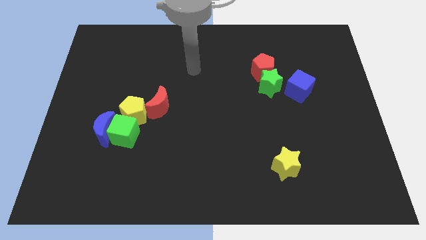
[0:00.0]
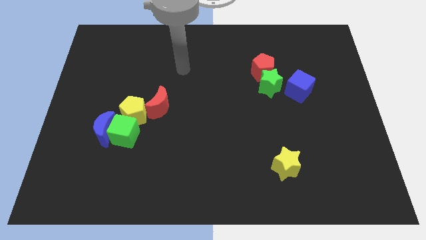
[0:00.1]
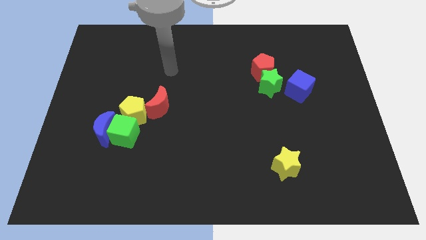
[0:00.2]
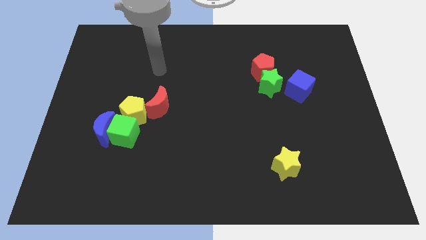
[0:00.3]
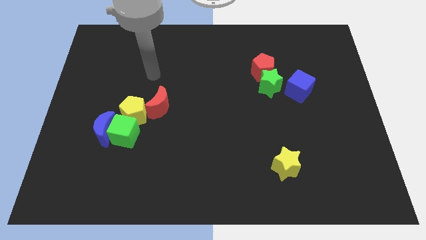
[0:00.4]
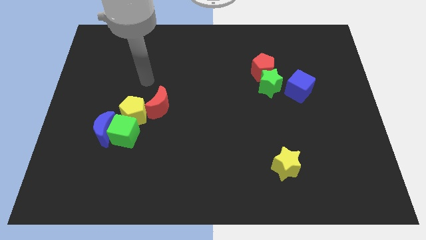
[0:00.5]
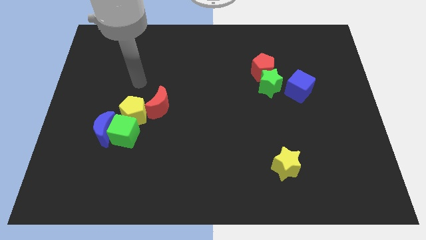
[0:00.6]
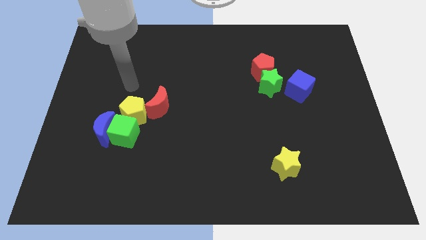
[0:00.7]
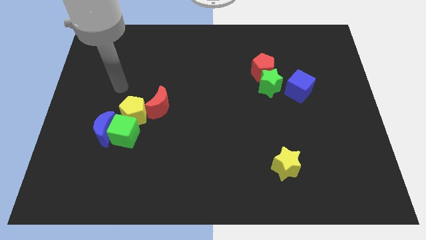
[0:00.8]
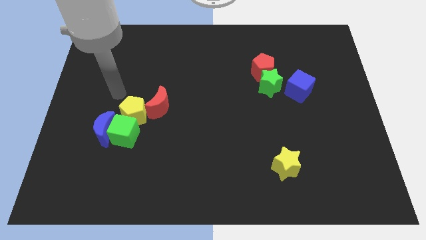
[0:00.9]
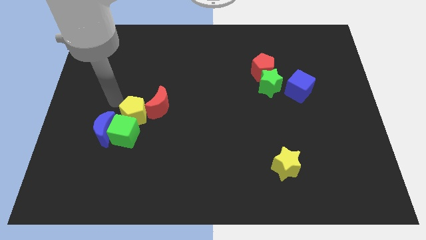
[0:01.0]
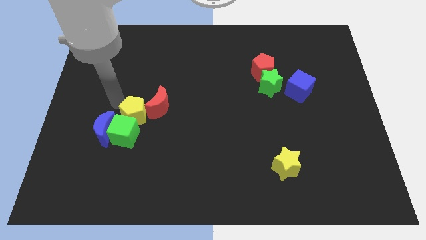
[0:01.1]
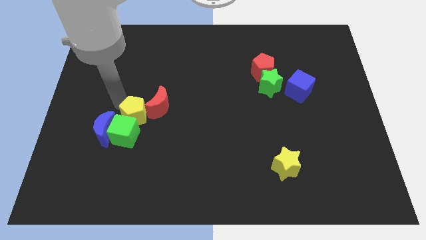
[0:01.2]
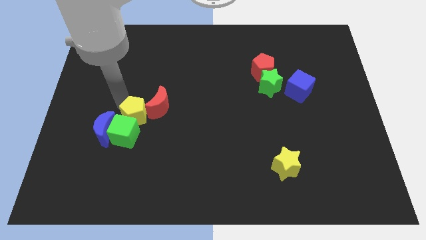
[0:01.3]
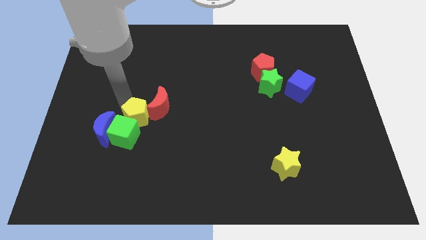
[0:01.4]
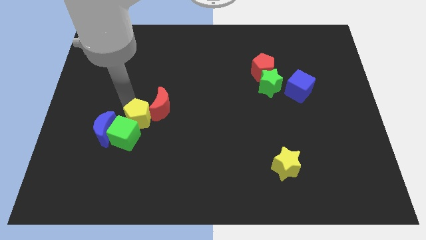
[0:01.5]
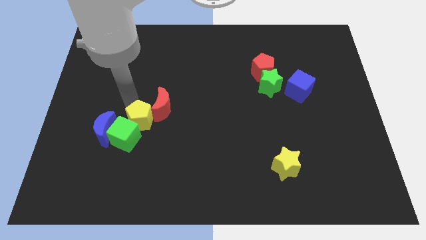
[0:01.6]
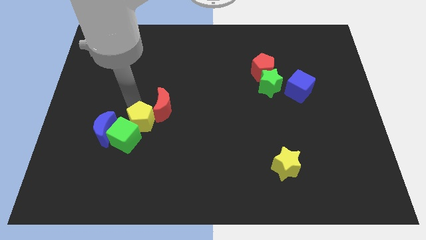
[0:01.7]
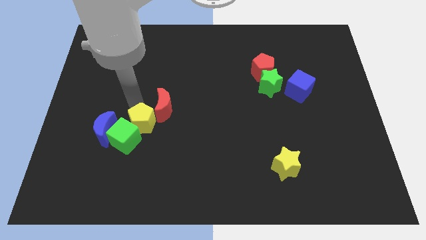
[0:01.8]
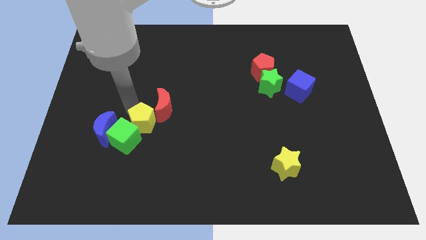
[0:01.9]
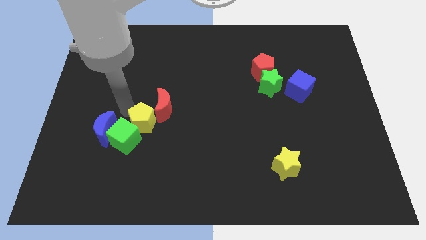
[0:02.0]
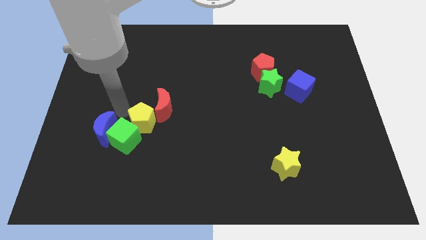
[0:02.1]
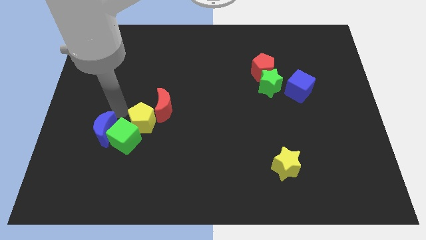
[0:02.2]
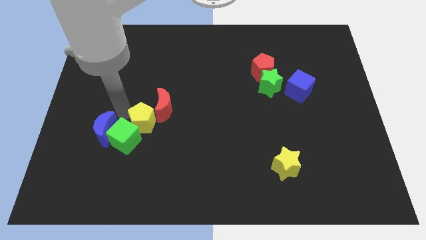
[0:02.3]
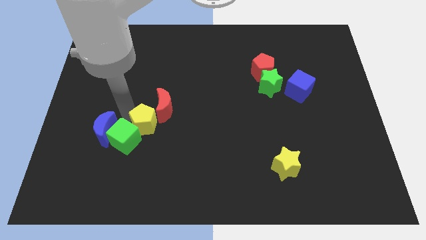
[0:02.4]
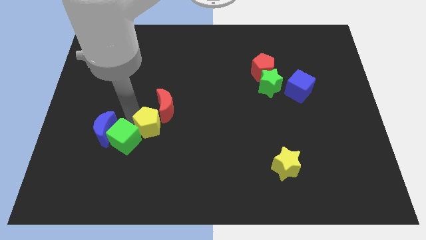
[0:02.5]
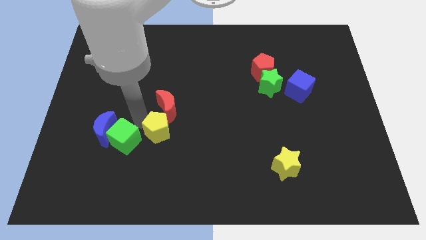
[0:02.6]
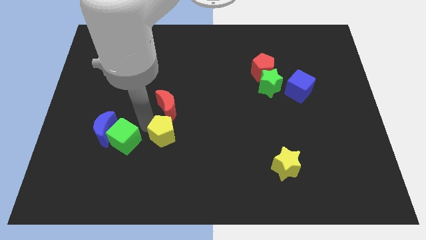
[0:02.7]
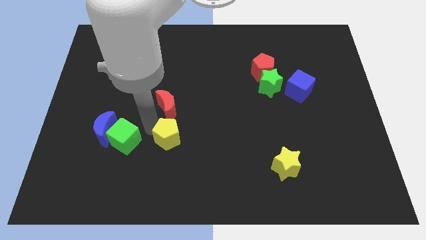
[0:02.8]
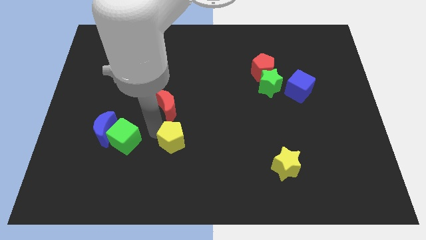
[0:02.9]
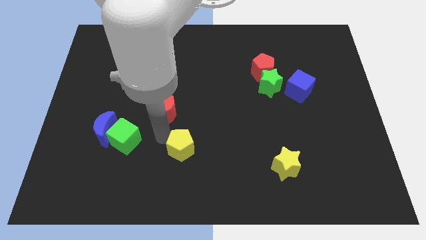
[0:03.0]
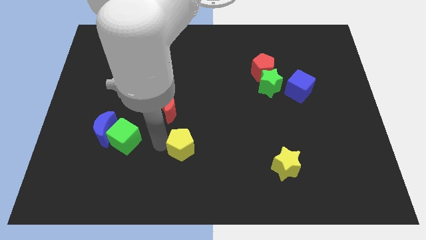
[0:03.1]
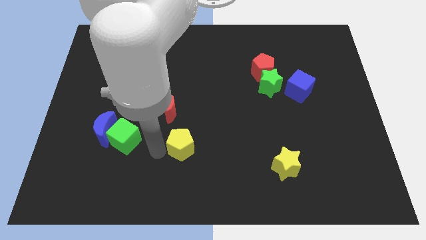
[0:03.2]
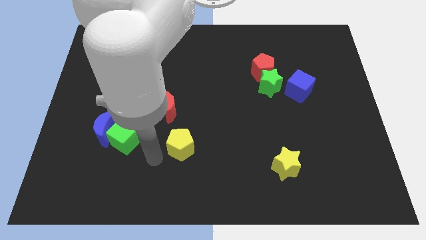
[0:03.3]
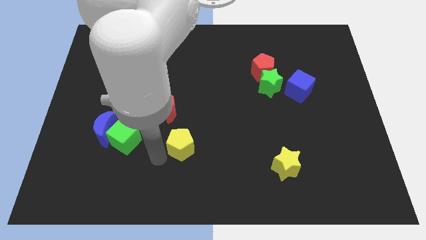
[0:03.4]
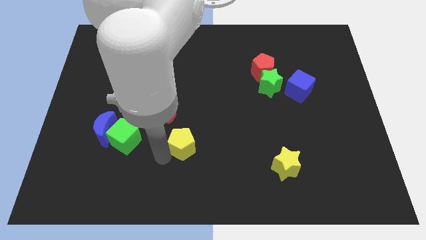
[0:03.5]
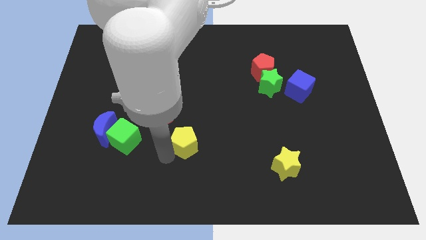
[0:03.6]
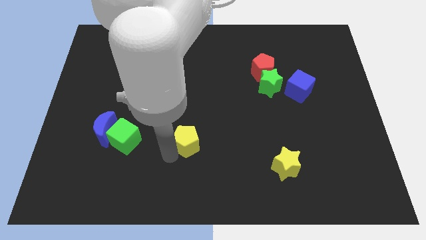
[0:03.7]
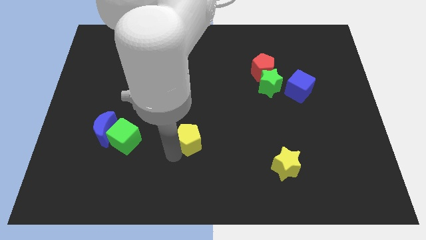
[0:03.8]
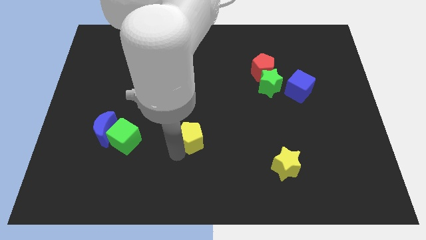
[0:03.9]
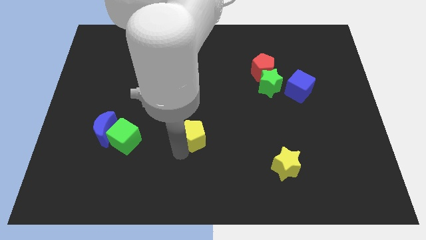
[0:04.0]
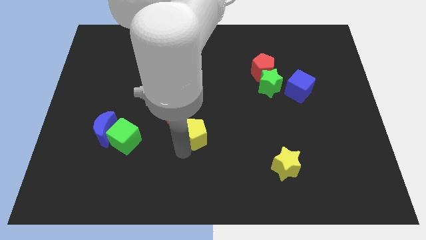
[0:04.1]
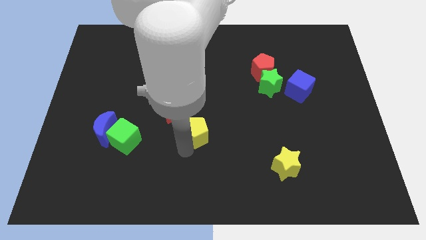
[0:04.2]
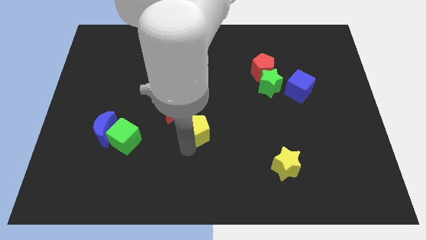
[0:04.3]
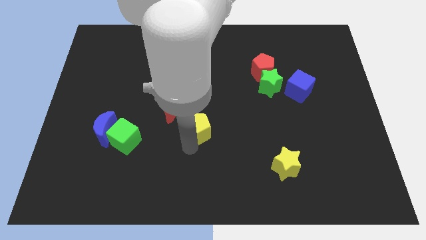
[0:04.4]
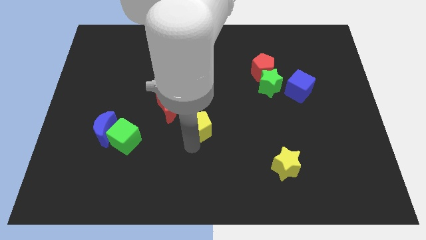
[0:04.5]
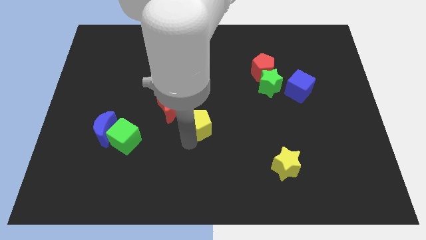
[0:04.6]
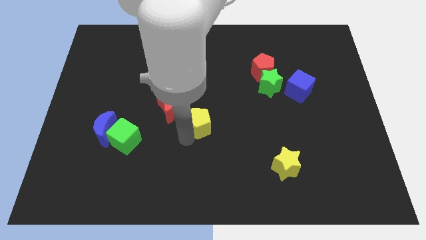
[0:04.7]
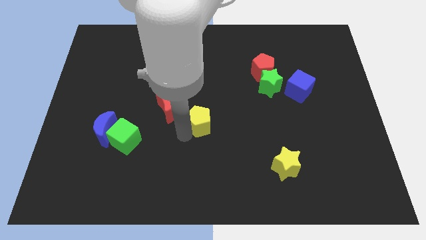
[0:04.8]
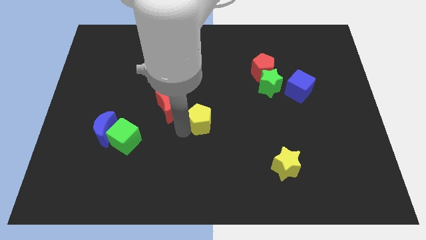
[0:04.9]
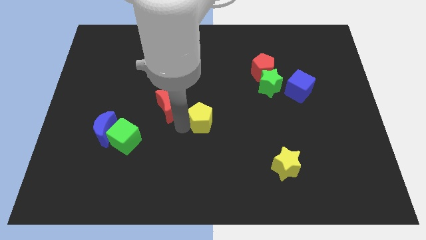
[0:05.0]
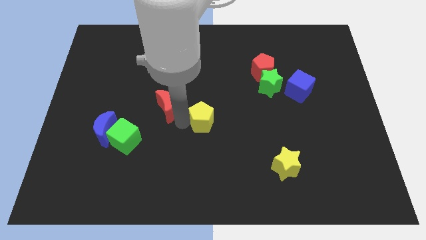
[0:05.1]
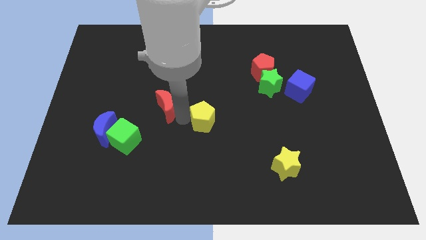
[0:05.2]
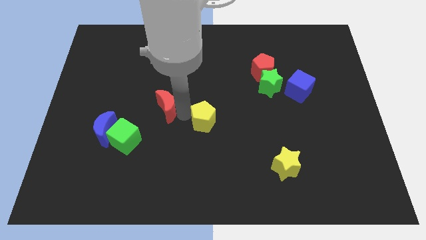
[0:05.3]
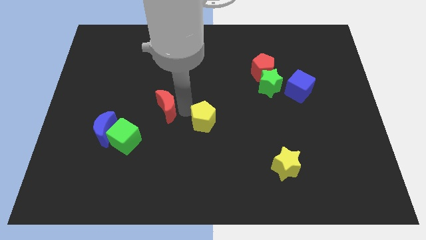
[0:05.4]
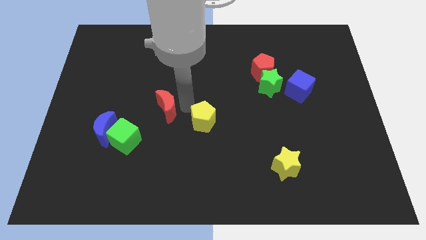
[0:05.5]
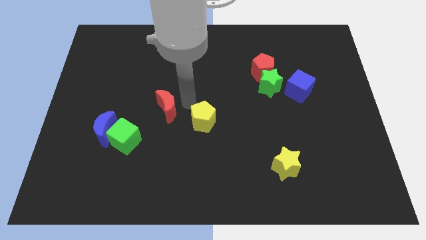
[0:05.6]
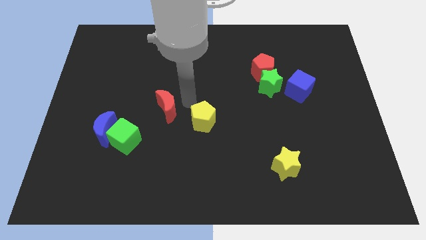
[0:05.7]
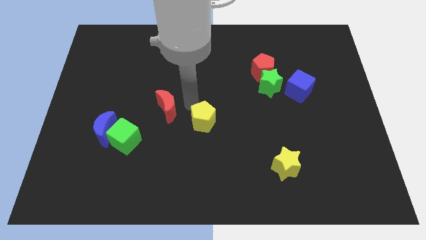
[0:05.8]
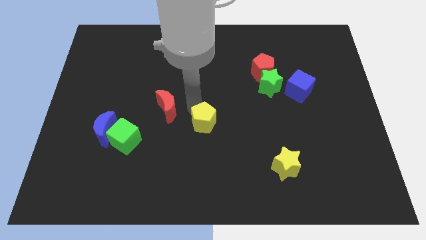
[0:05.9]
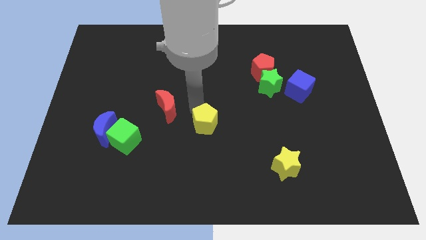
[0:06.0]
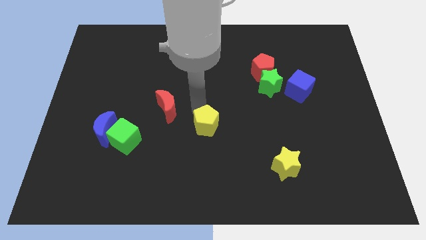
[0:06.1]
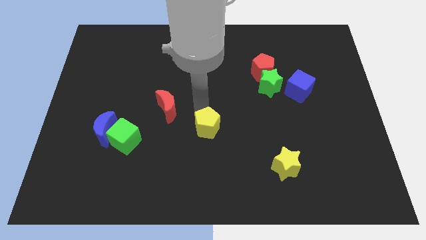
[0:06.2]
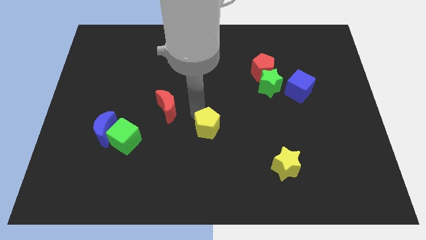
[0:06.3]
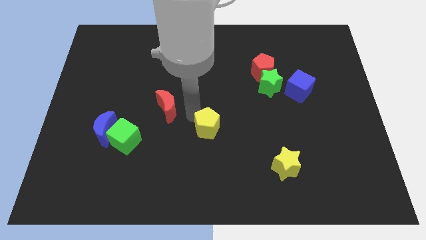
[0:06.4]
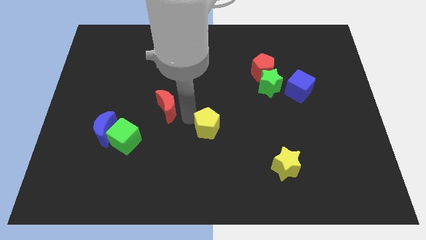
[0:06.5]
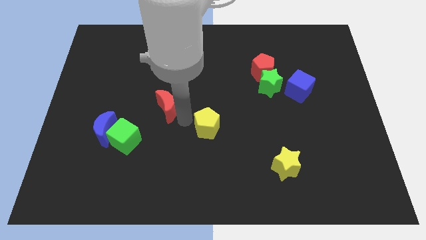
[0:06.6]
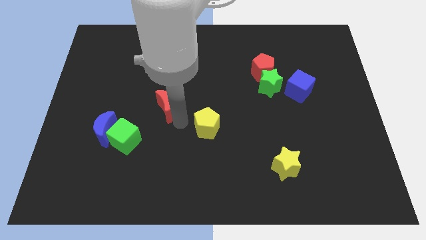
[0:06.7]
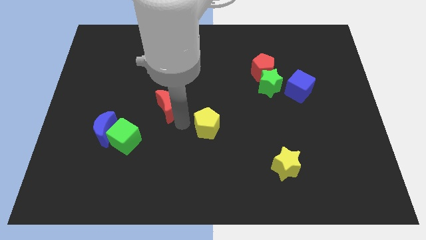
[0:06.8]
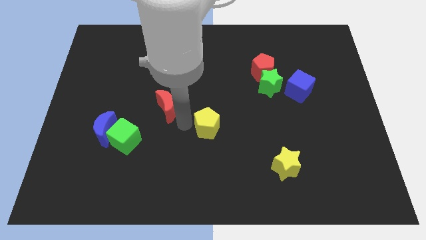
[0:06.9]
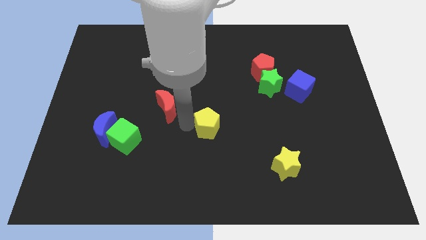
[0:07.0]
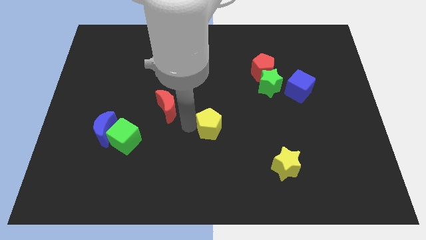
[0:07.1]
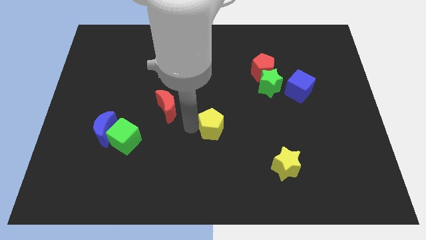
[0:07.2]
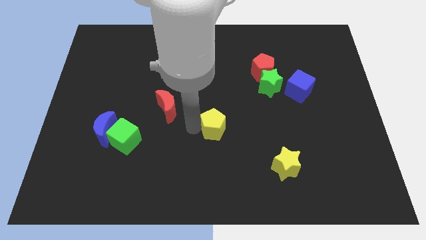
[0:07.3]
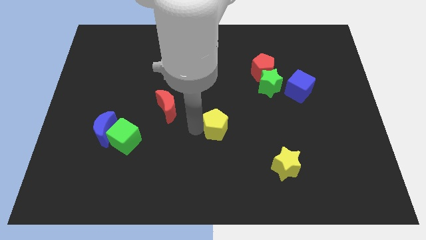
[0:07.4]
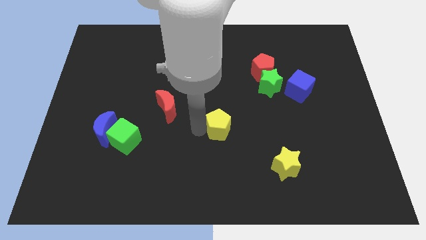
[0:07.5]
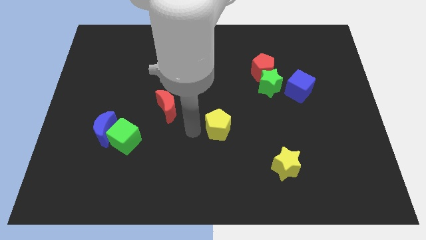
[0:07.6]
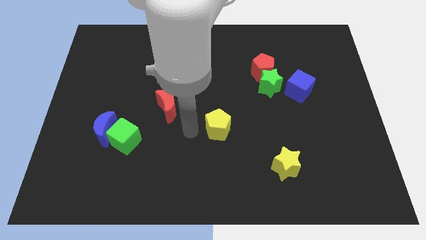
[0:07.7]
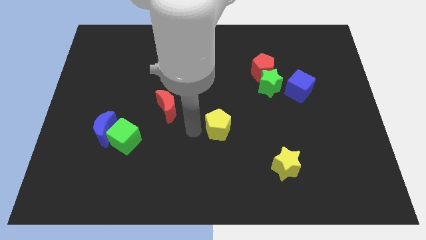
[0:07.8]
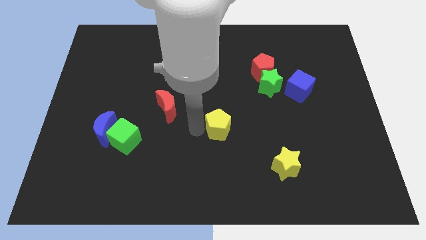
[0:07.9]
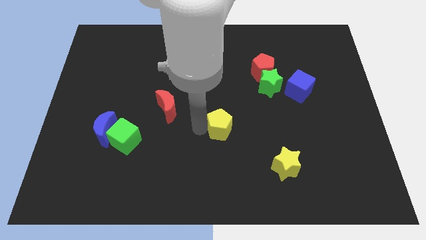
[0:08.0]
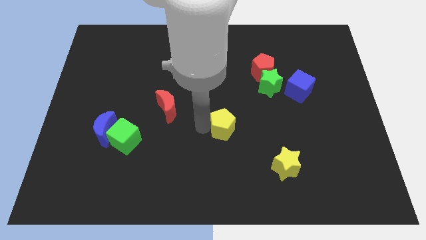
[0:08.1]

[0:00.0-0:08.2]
push the yellow pentagon to the right
